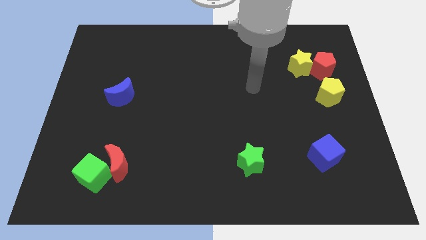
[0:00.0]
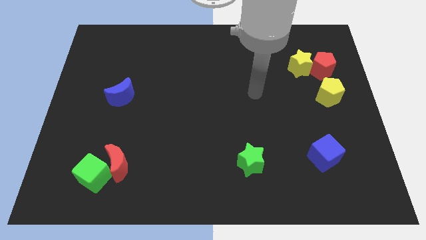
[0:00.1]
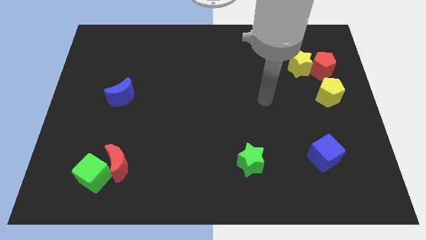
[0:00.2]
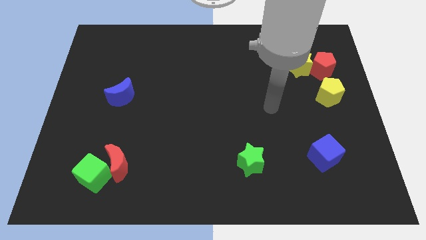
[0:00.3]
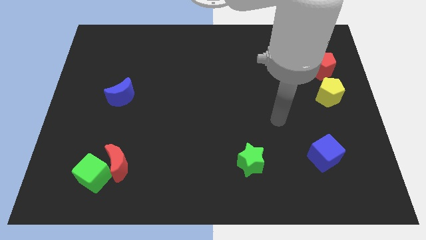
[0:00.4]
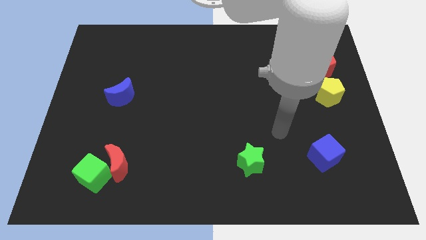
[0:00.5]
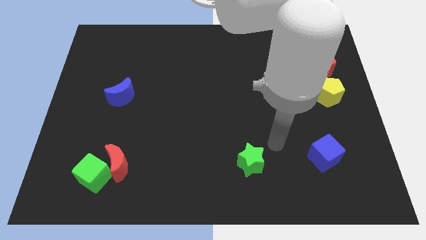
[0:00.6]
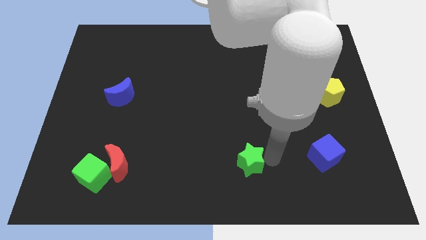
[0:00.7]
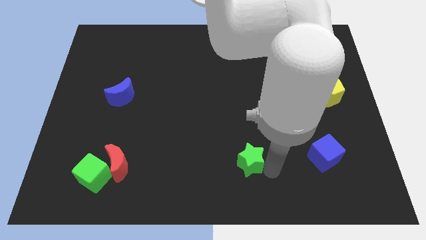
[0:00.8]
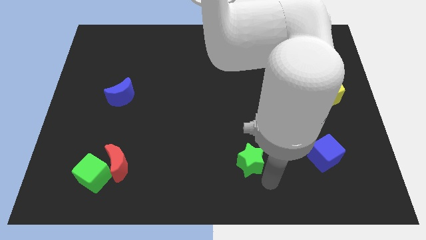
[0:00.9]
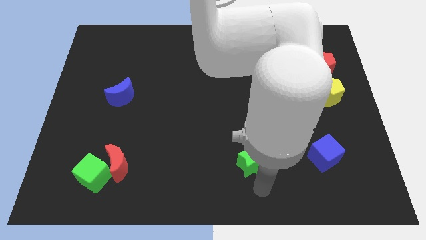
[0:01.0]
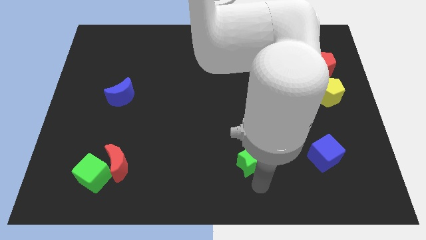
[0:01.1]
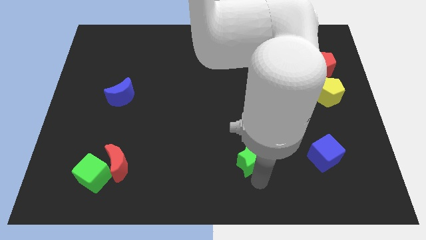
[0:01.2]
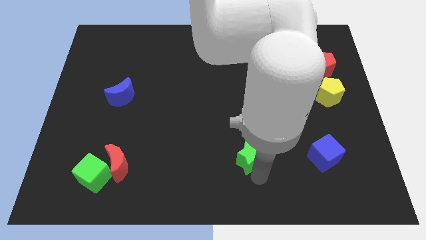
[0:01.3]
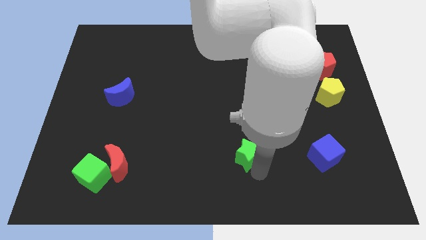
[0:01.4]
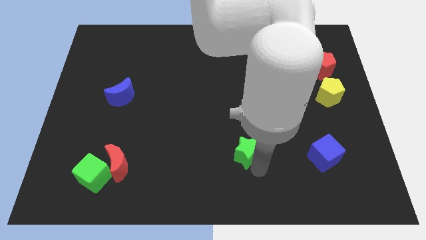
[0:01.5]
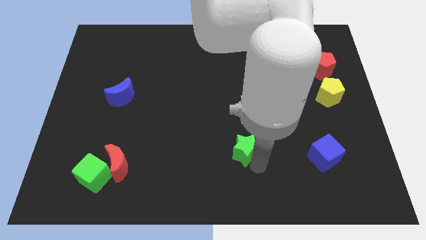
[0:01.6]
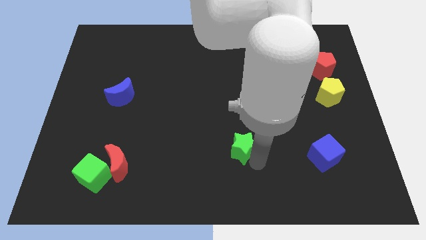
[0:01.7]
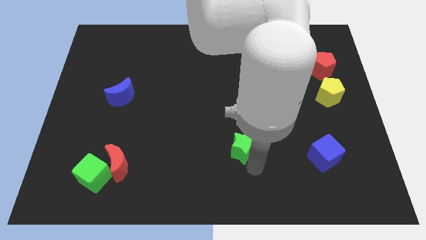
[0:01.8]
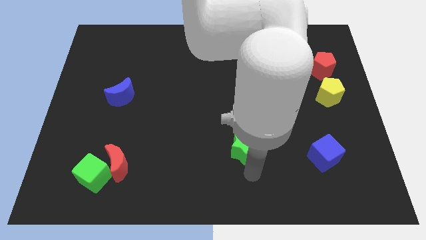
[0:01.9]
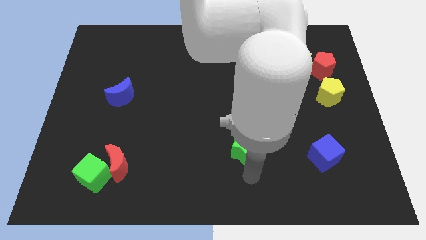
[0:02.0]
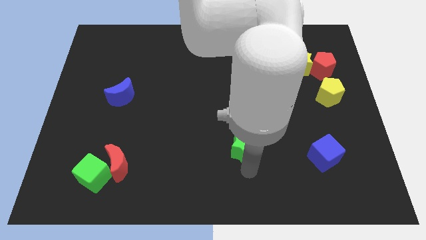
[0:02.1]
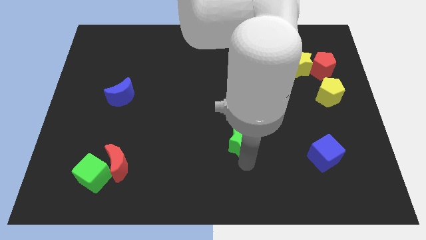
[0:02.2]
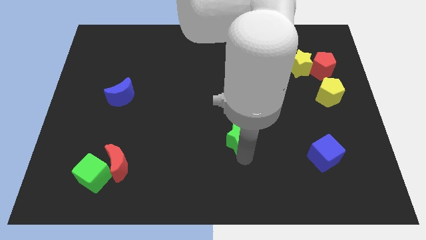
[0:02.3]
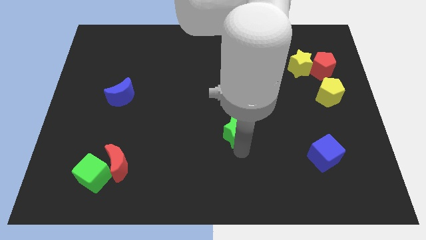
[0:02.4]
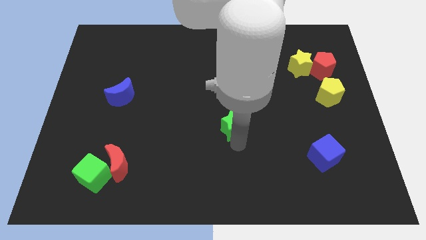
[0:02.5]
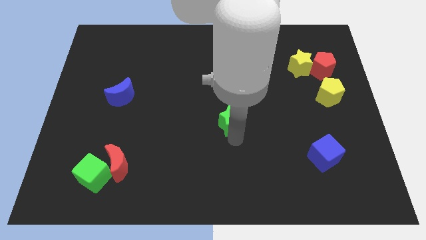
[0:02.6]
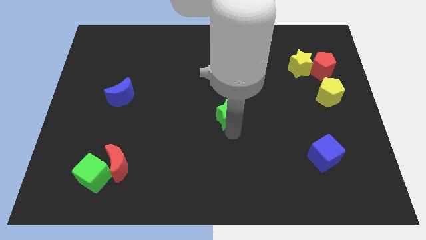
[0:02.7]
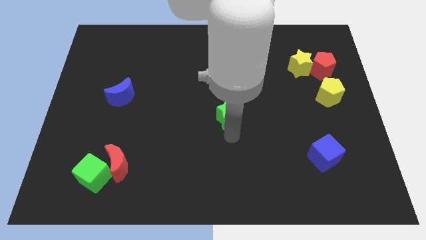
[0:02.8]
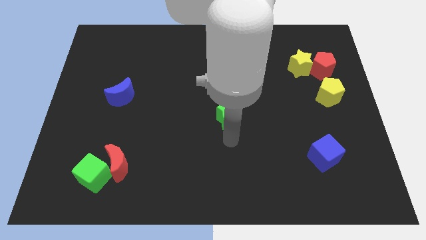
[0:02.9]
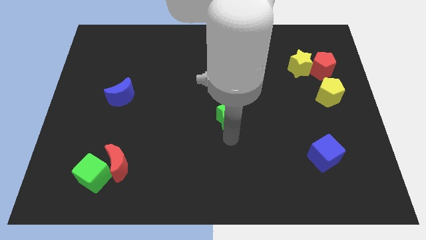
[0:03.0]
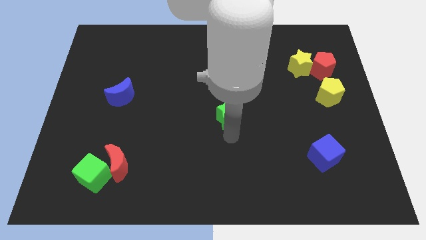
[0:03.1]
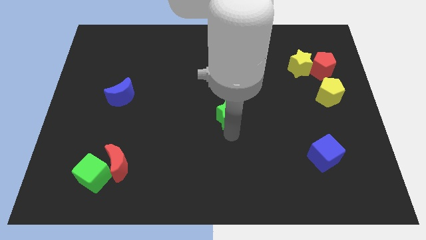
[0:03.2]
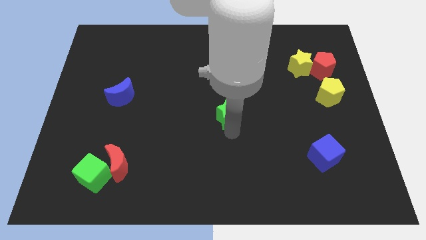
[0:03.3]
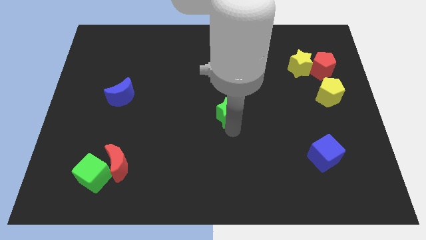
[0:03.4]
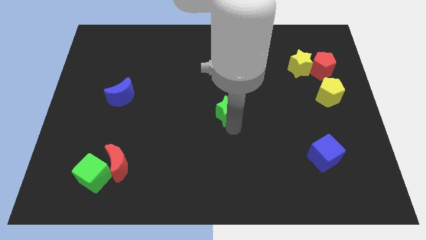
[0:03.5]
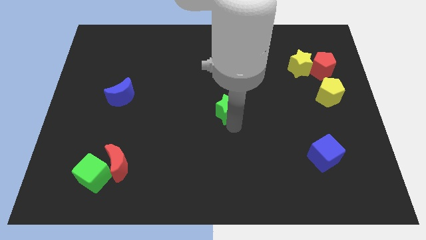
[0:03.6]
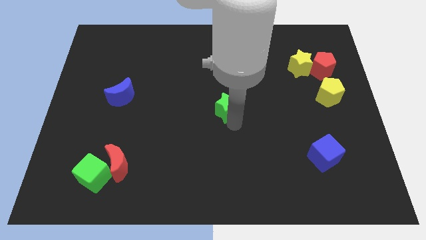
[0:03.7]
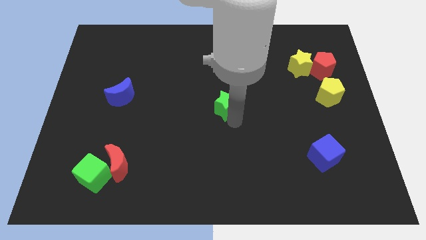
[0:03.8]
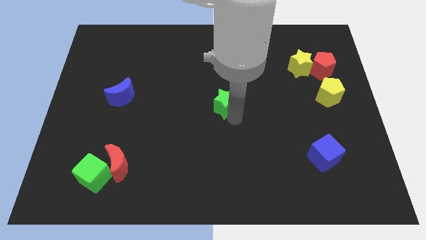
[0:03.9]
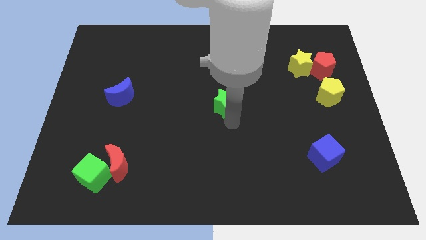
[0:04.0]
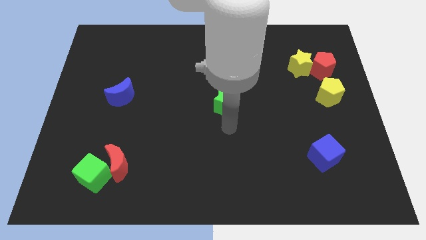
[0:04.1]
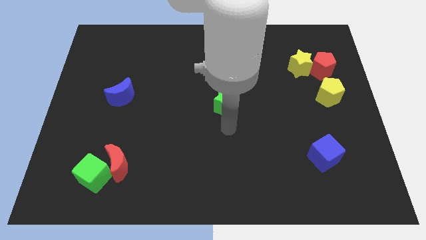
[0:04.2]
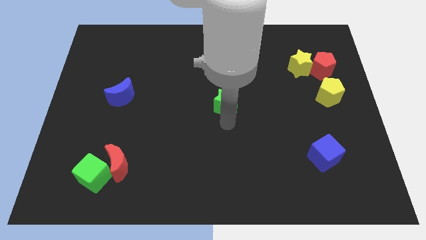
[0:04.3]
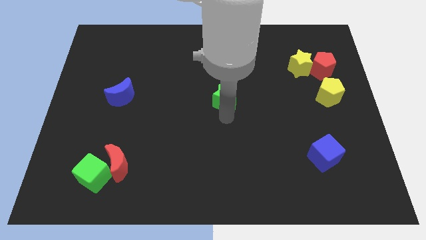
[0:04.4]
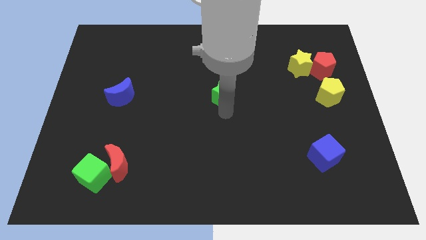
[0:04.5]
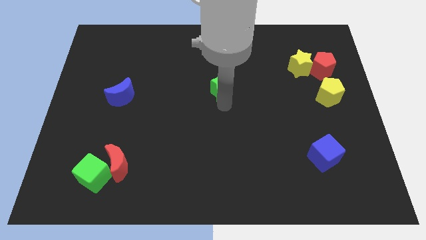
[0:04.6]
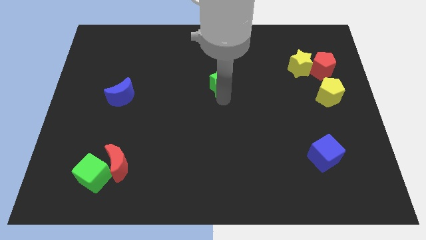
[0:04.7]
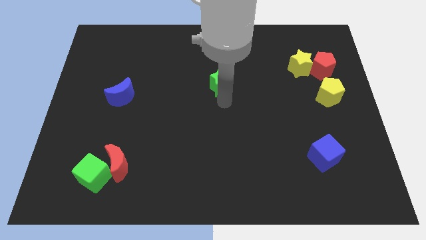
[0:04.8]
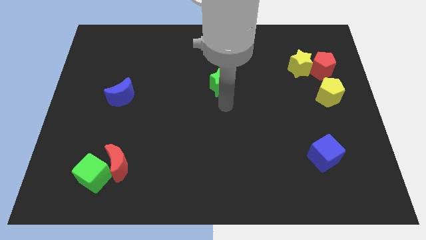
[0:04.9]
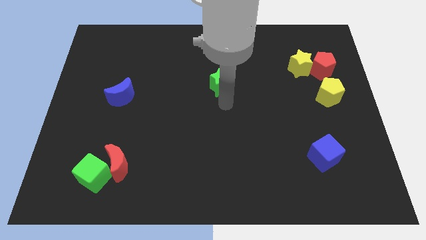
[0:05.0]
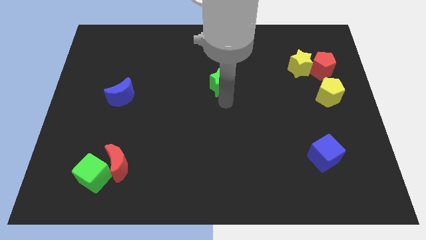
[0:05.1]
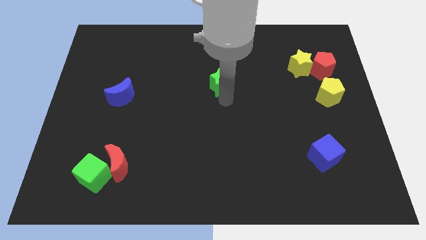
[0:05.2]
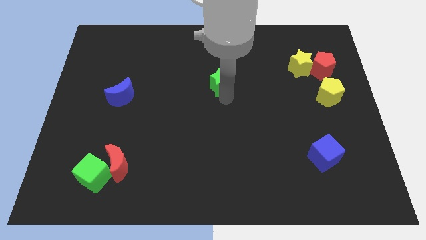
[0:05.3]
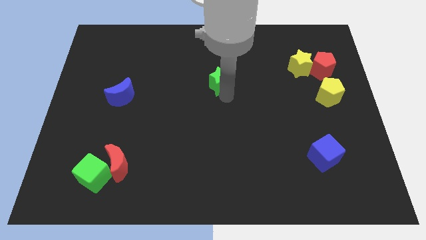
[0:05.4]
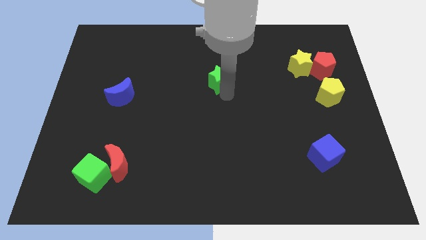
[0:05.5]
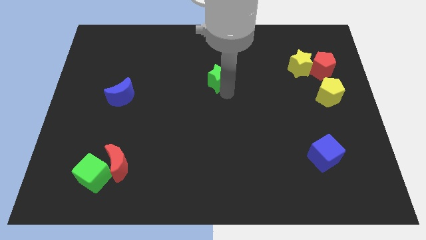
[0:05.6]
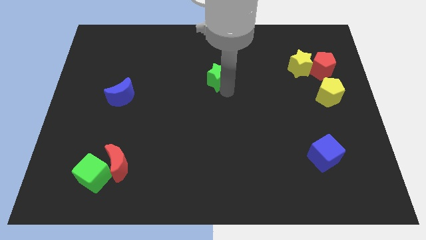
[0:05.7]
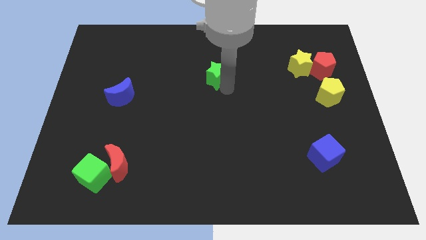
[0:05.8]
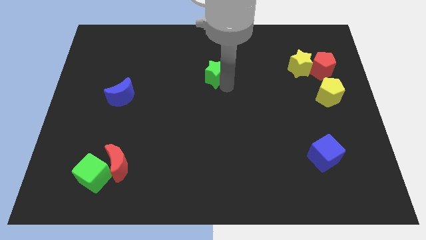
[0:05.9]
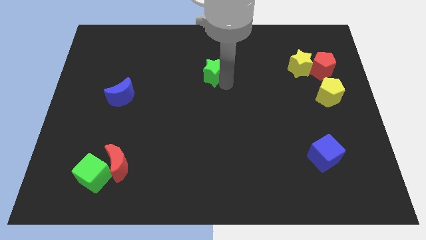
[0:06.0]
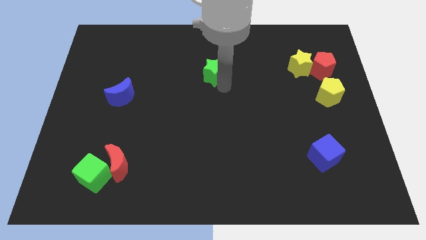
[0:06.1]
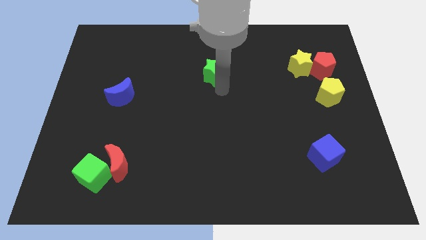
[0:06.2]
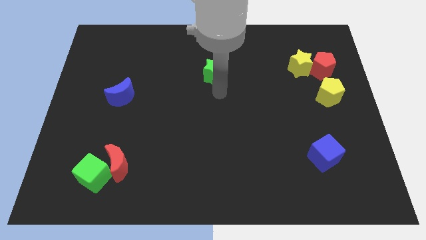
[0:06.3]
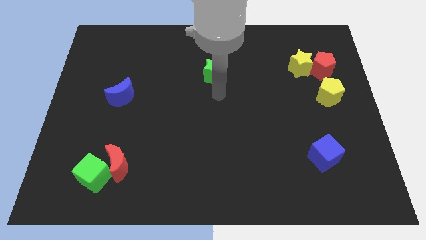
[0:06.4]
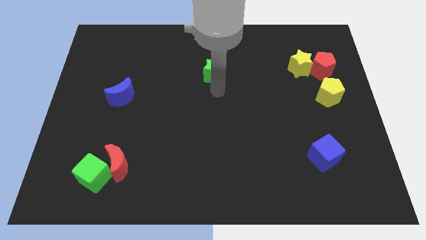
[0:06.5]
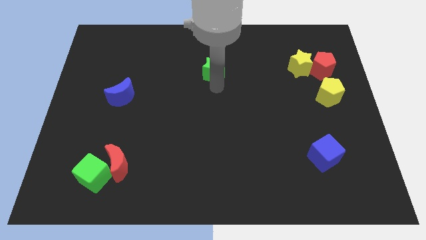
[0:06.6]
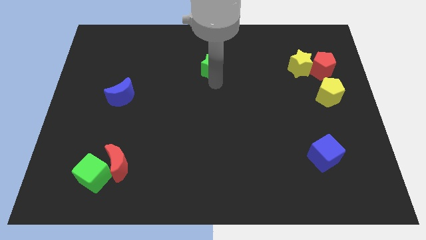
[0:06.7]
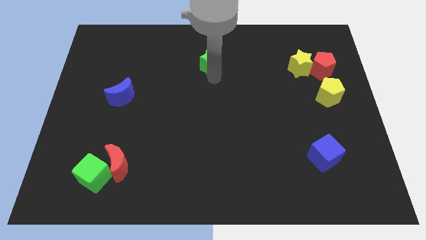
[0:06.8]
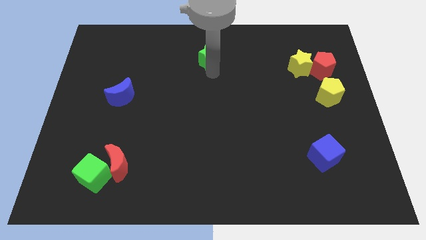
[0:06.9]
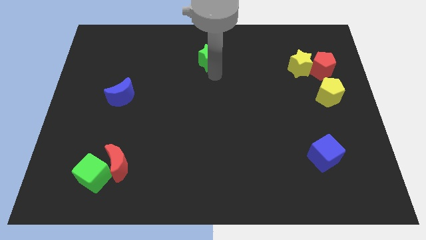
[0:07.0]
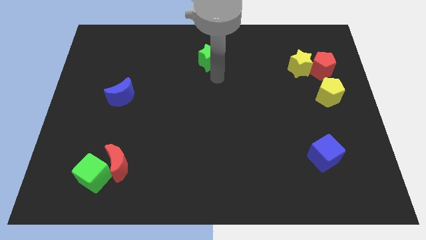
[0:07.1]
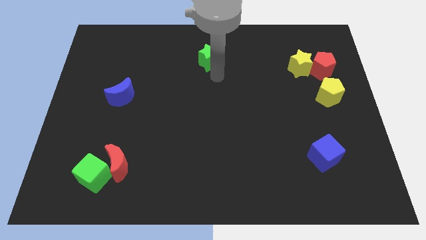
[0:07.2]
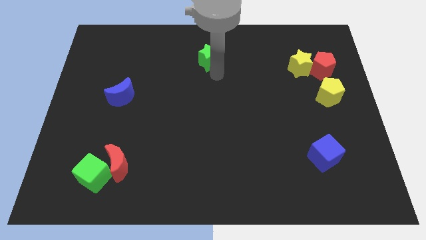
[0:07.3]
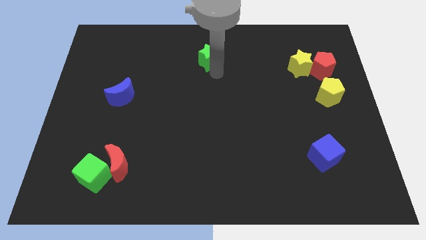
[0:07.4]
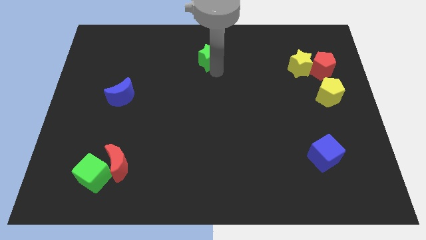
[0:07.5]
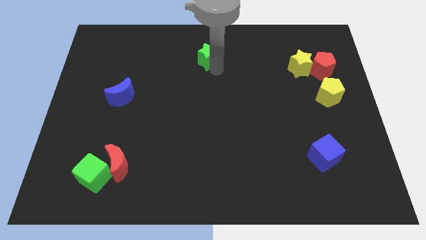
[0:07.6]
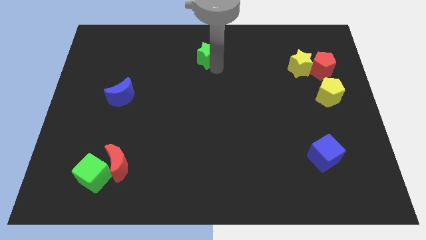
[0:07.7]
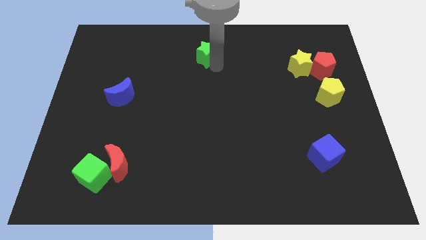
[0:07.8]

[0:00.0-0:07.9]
slide the green star to the top side
